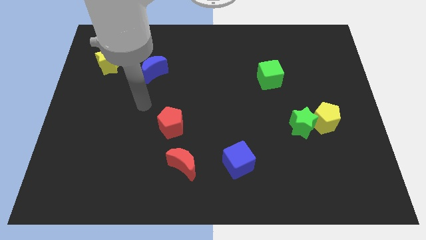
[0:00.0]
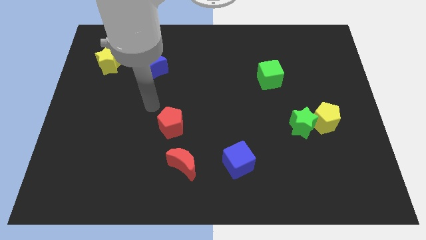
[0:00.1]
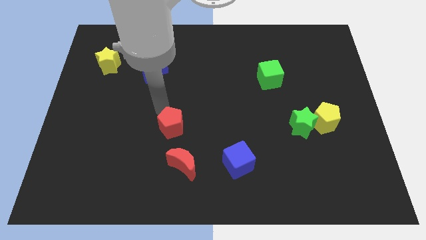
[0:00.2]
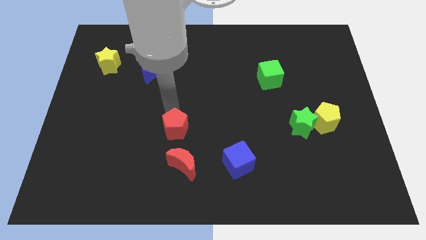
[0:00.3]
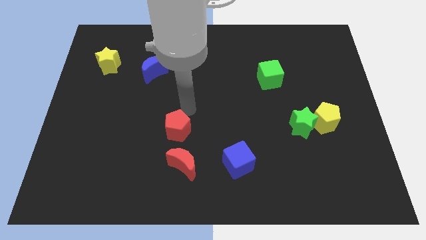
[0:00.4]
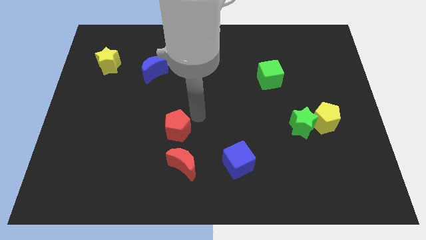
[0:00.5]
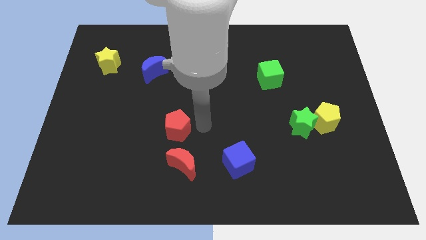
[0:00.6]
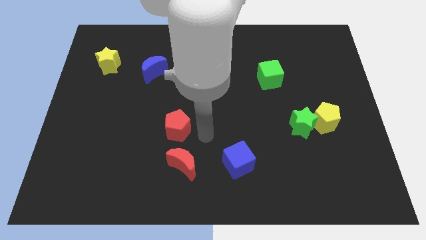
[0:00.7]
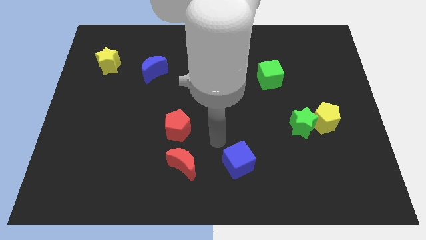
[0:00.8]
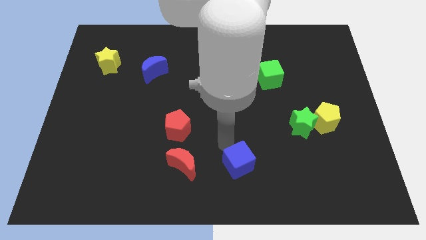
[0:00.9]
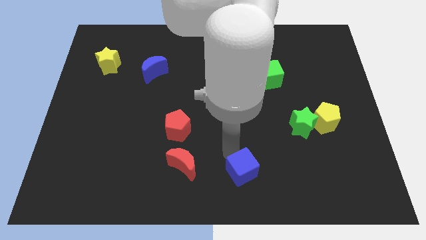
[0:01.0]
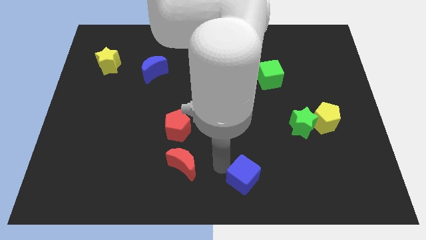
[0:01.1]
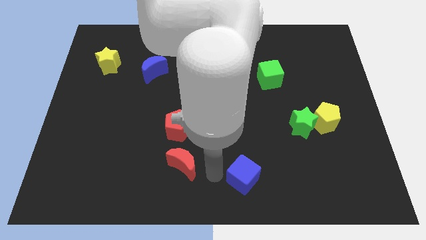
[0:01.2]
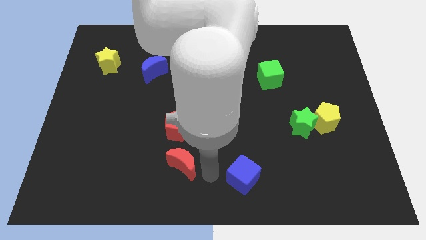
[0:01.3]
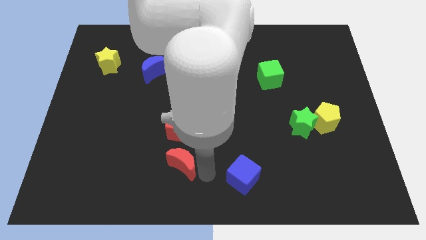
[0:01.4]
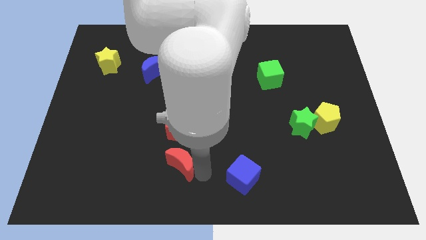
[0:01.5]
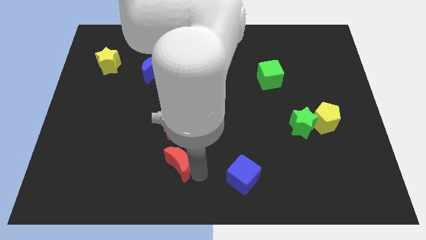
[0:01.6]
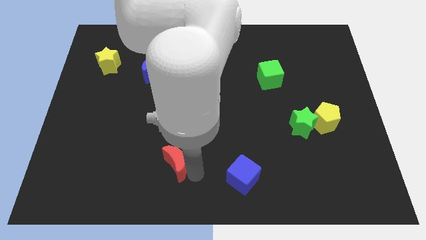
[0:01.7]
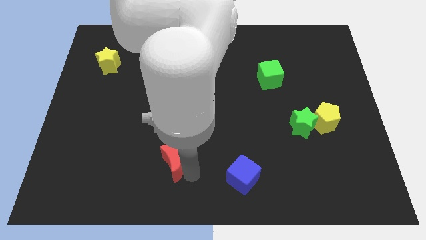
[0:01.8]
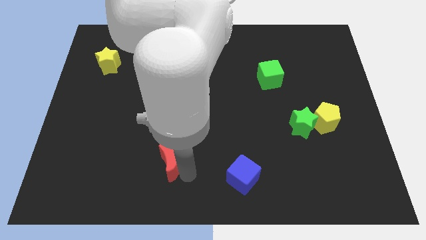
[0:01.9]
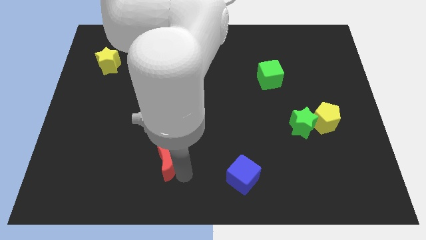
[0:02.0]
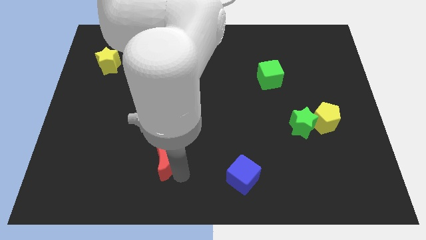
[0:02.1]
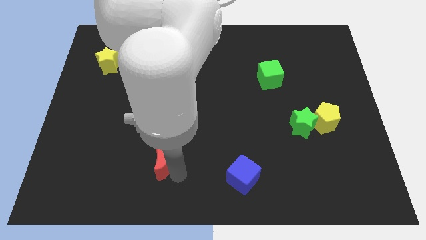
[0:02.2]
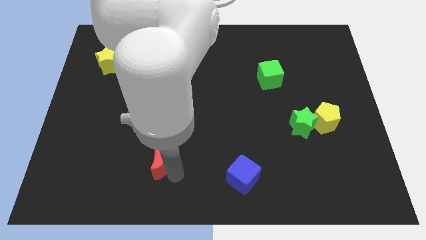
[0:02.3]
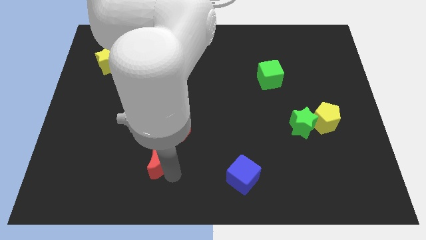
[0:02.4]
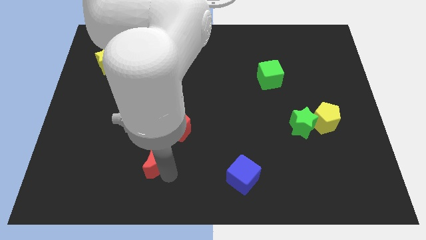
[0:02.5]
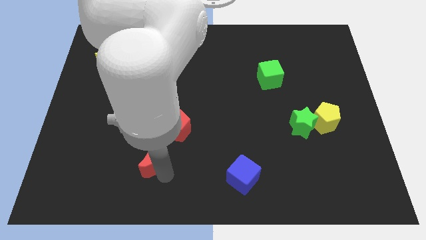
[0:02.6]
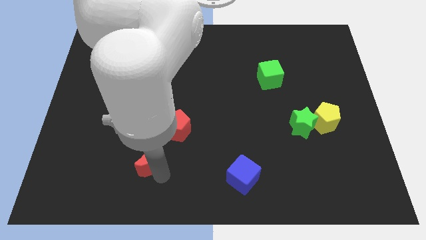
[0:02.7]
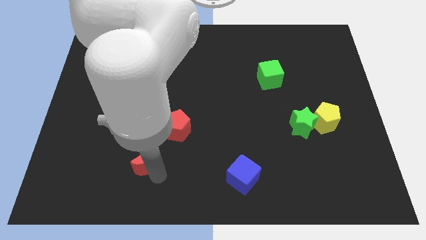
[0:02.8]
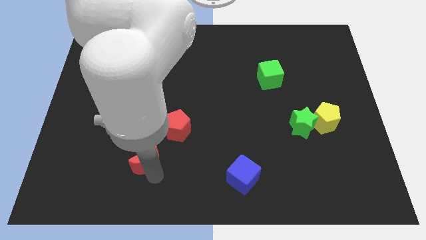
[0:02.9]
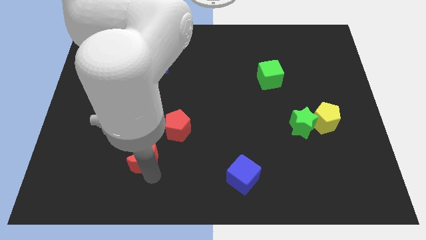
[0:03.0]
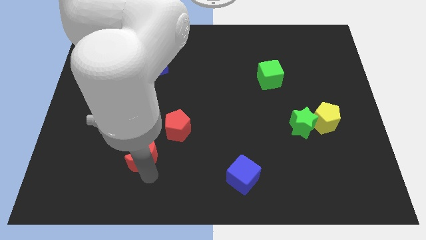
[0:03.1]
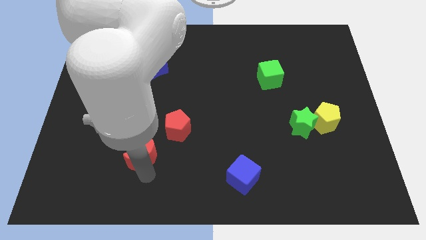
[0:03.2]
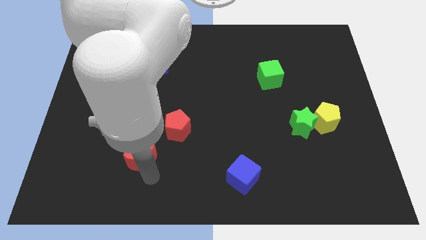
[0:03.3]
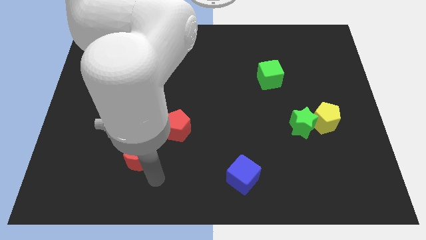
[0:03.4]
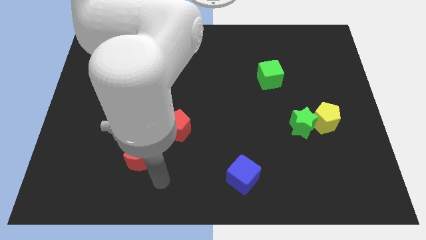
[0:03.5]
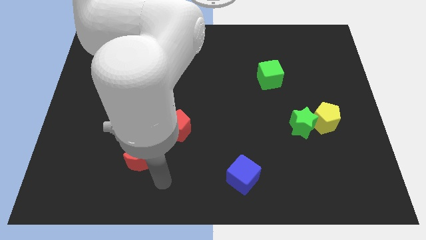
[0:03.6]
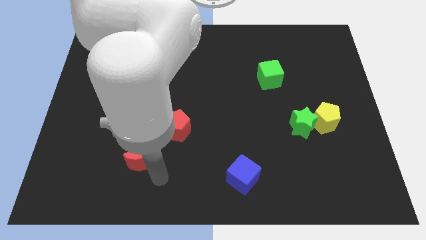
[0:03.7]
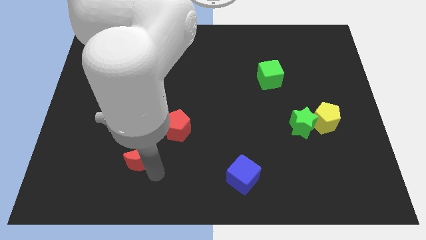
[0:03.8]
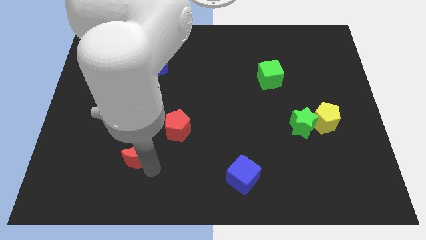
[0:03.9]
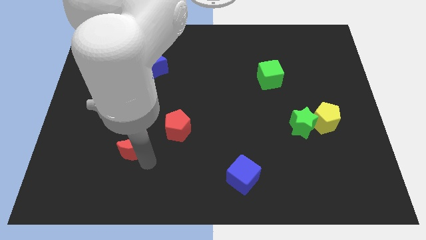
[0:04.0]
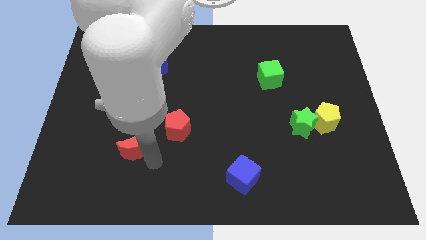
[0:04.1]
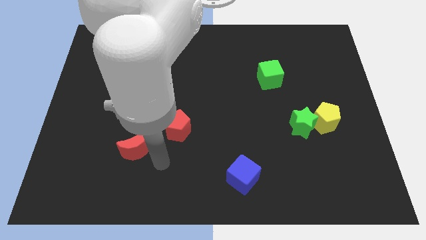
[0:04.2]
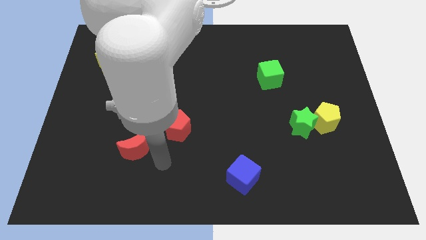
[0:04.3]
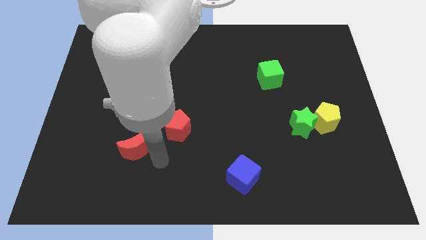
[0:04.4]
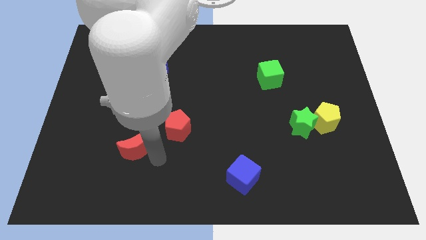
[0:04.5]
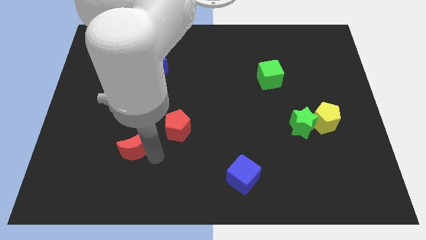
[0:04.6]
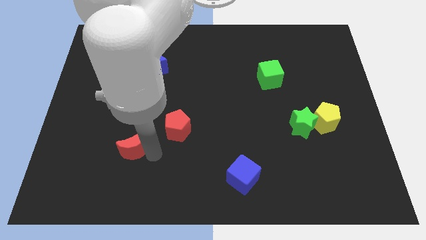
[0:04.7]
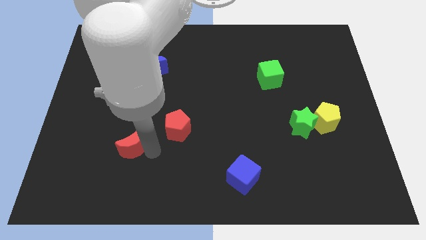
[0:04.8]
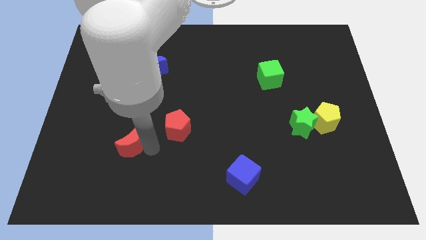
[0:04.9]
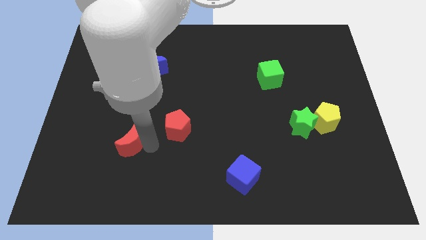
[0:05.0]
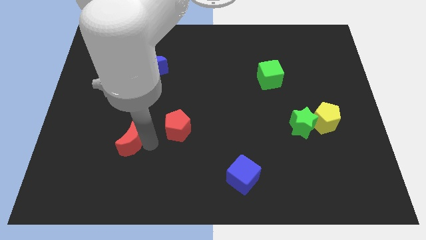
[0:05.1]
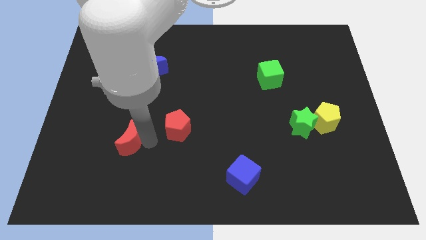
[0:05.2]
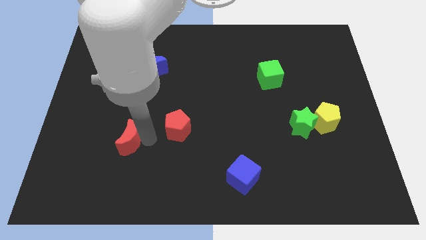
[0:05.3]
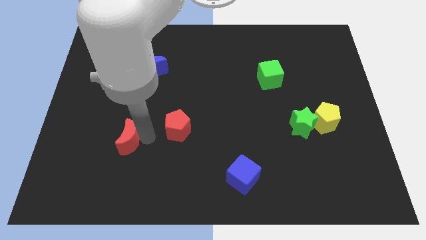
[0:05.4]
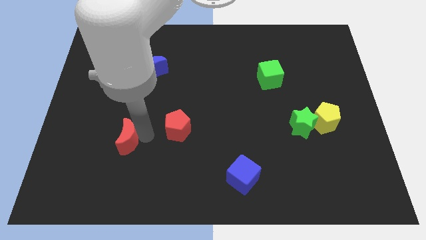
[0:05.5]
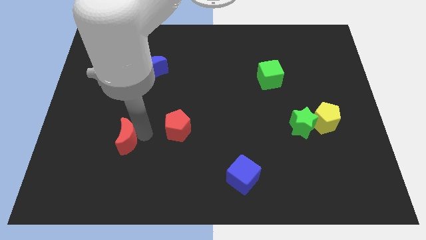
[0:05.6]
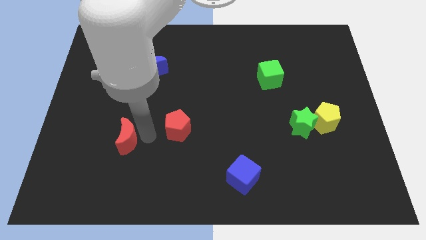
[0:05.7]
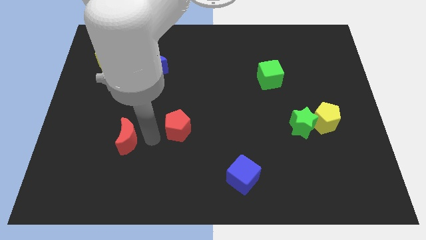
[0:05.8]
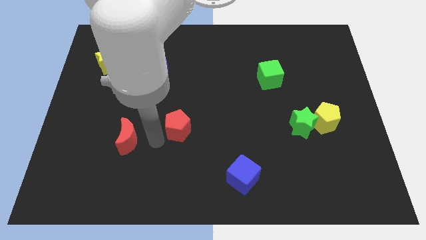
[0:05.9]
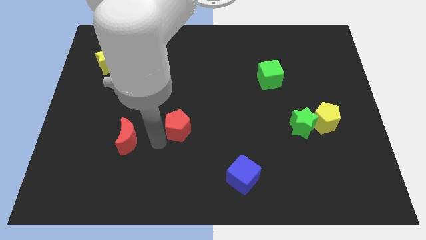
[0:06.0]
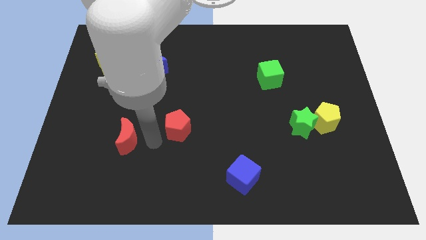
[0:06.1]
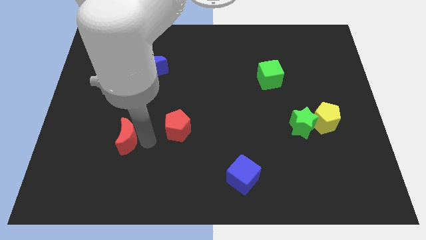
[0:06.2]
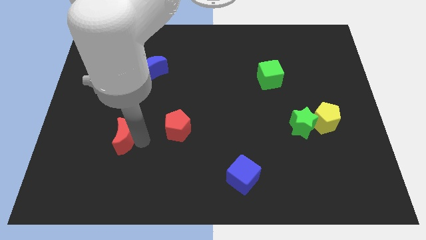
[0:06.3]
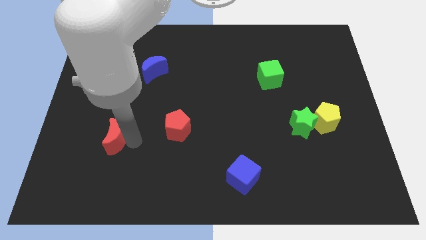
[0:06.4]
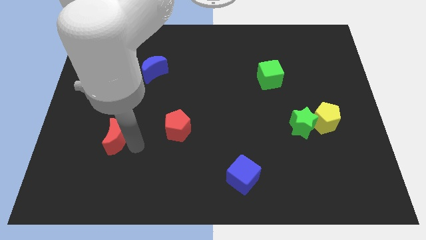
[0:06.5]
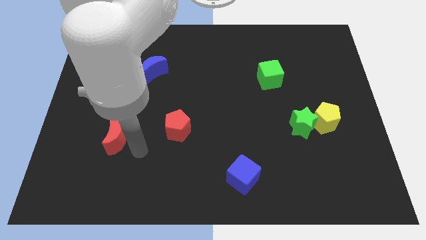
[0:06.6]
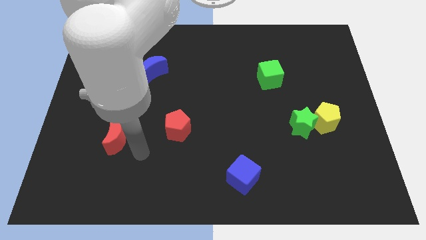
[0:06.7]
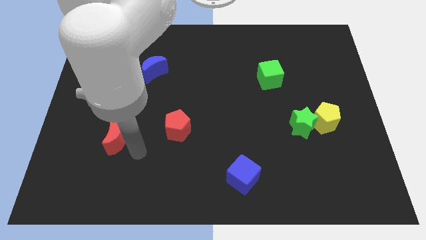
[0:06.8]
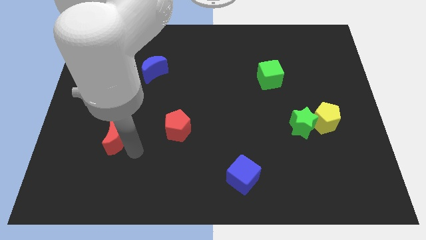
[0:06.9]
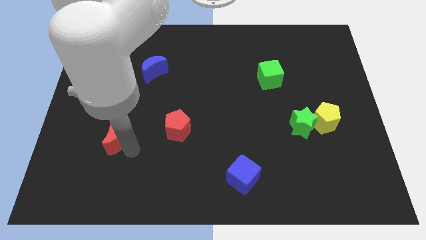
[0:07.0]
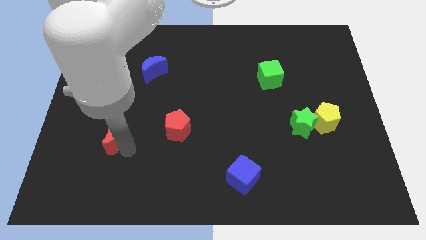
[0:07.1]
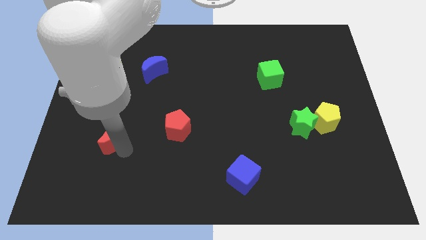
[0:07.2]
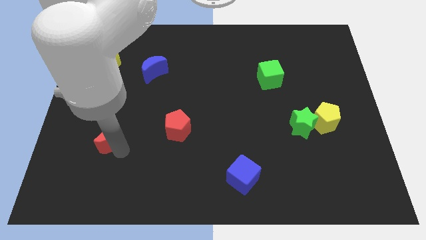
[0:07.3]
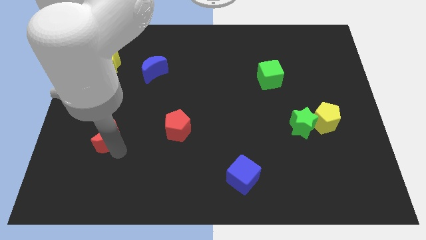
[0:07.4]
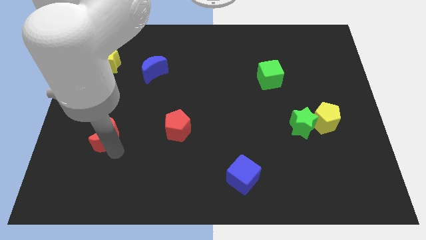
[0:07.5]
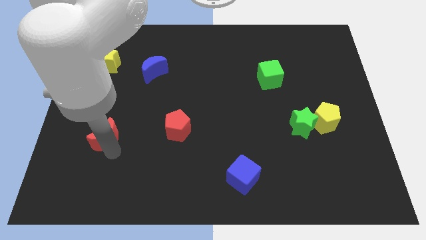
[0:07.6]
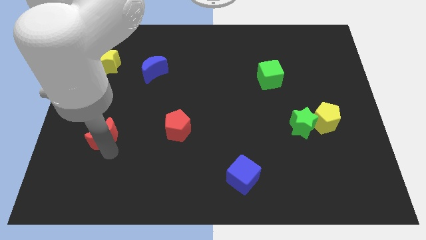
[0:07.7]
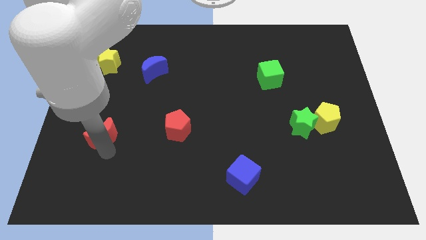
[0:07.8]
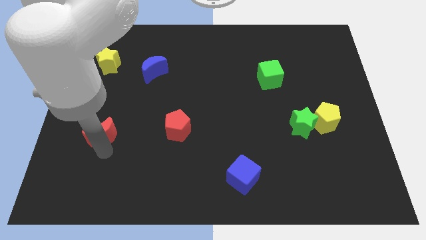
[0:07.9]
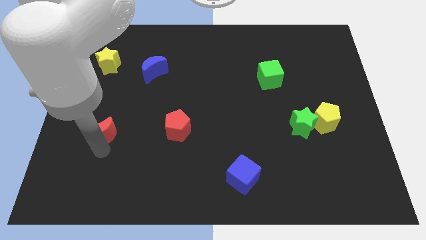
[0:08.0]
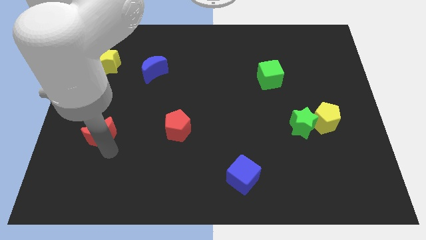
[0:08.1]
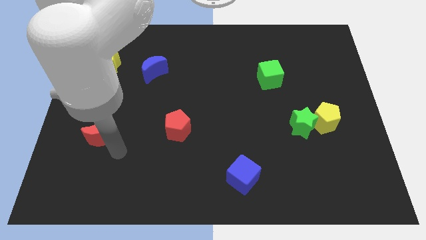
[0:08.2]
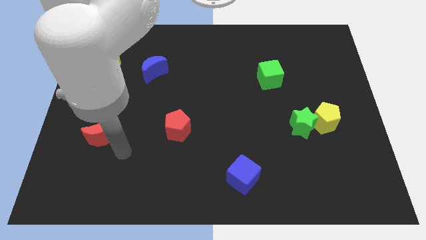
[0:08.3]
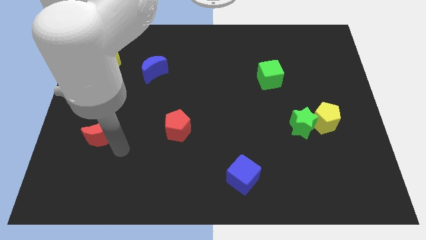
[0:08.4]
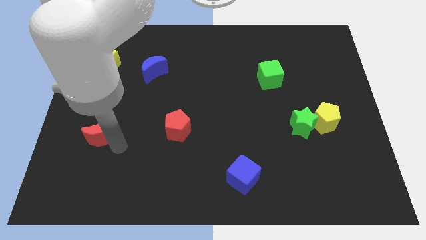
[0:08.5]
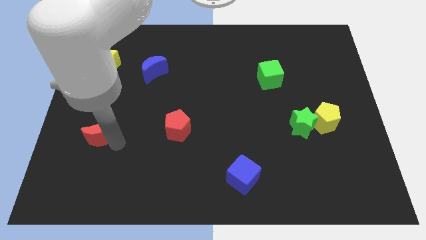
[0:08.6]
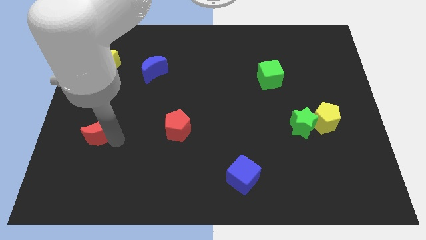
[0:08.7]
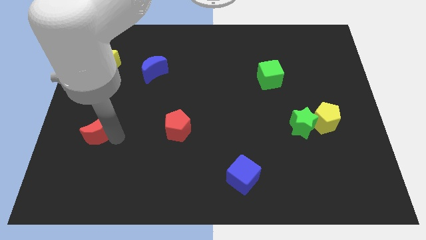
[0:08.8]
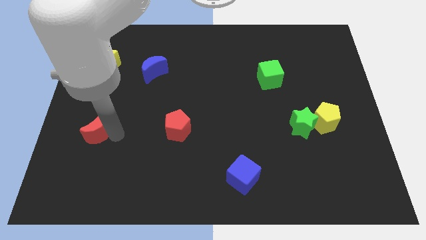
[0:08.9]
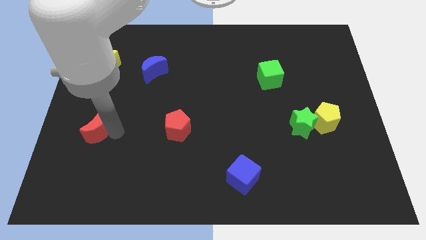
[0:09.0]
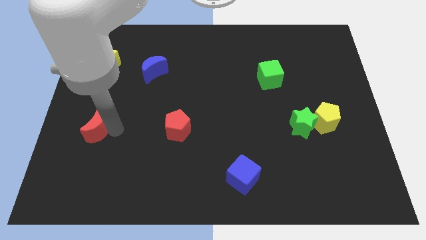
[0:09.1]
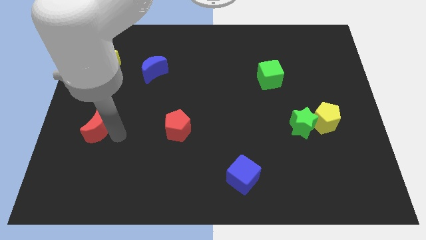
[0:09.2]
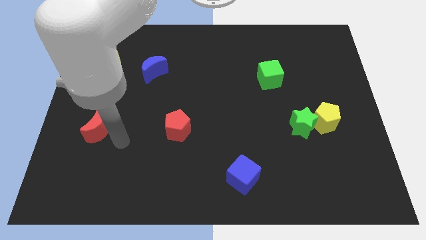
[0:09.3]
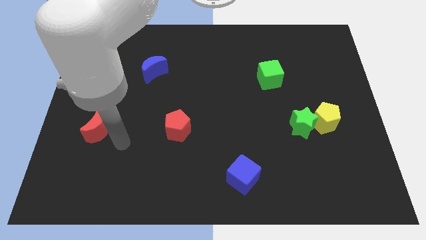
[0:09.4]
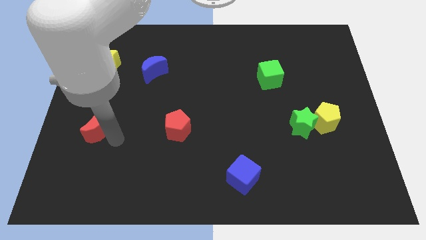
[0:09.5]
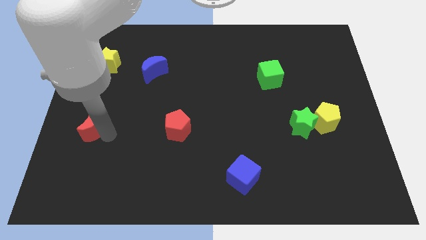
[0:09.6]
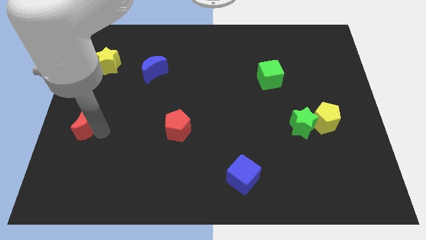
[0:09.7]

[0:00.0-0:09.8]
put the red moon to the center left
